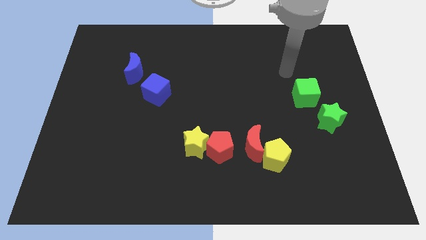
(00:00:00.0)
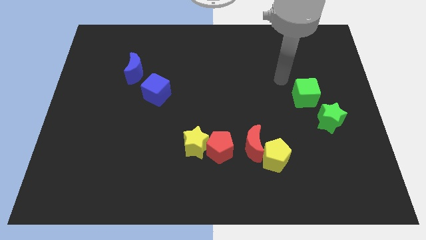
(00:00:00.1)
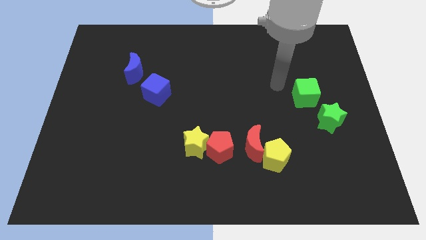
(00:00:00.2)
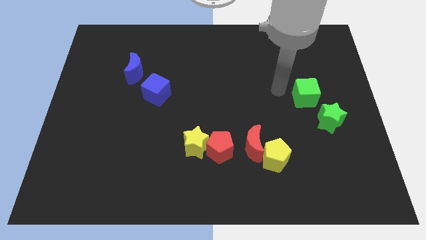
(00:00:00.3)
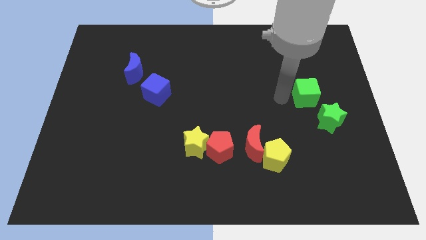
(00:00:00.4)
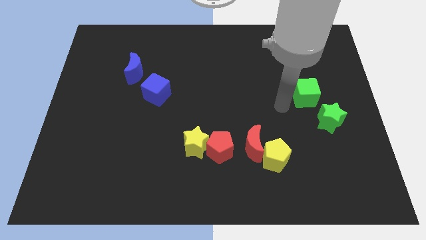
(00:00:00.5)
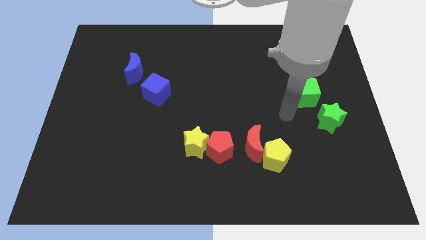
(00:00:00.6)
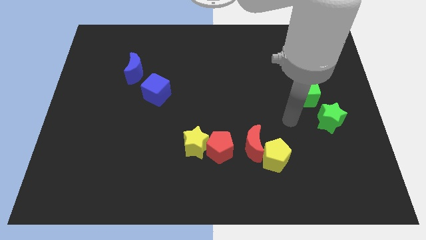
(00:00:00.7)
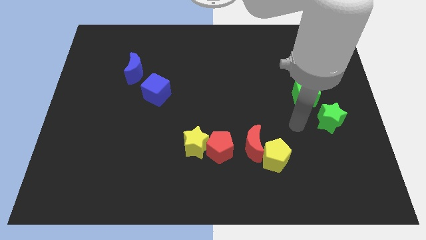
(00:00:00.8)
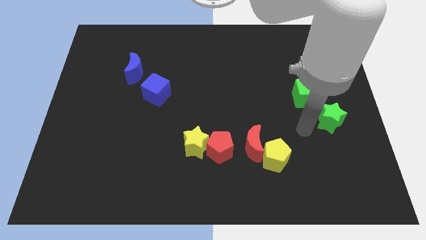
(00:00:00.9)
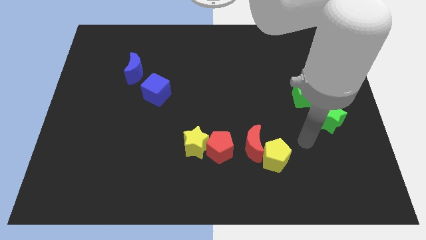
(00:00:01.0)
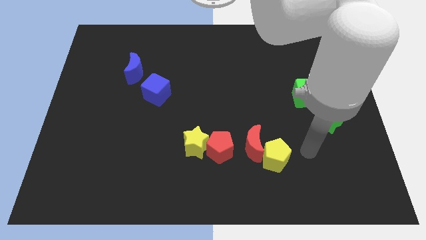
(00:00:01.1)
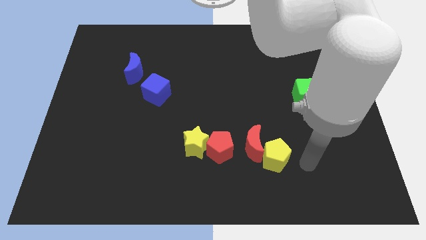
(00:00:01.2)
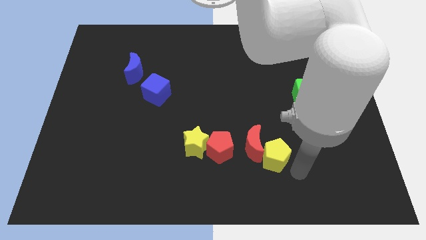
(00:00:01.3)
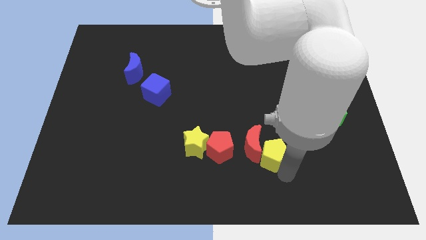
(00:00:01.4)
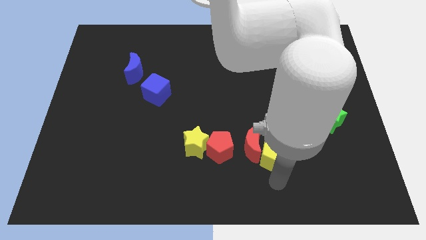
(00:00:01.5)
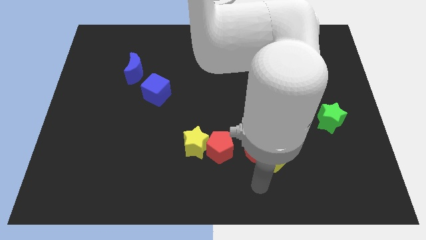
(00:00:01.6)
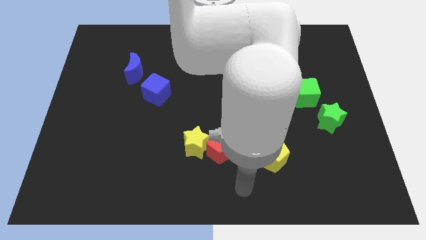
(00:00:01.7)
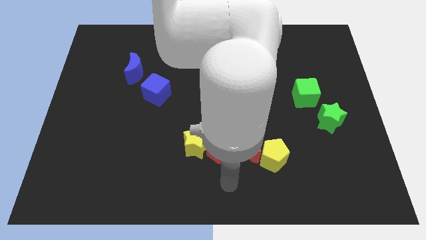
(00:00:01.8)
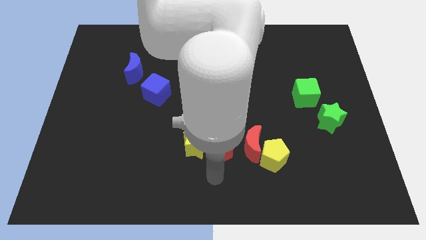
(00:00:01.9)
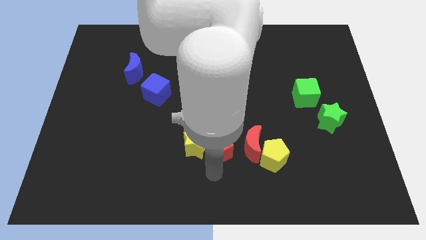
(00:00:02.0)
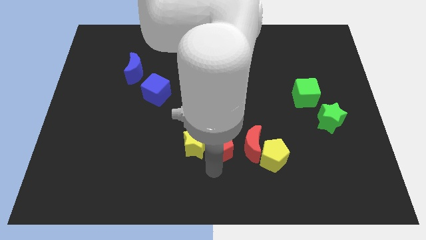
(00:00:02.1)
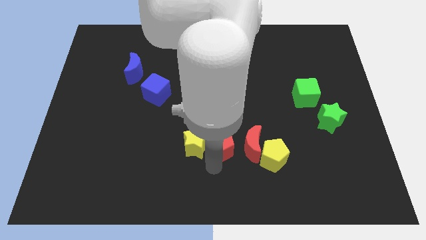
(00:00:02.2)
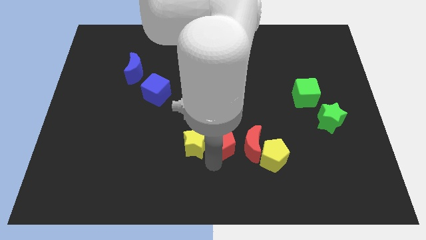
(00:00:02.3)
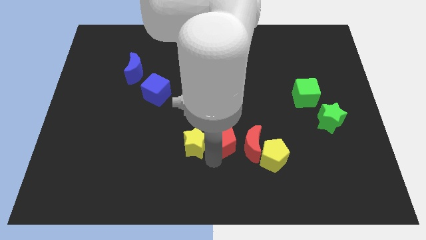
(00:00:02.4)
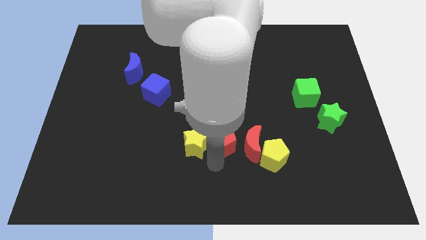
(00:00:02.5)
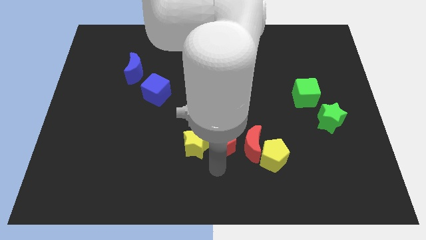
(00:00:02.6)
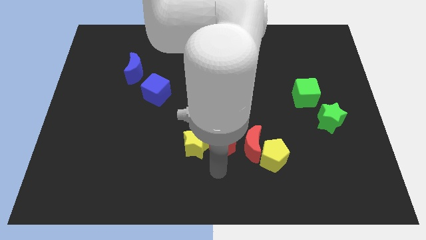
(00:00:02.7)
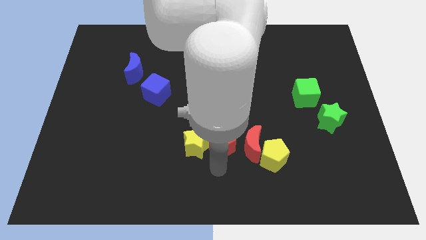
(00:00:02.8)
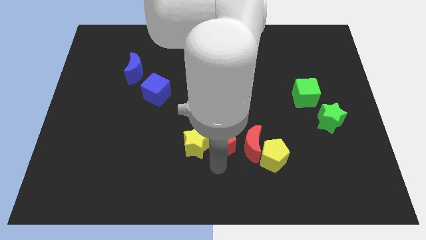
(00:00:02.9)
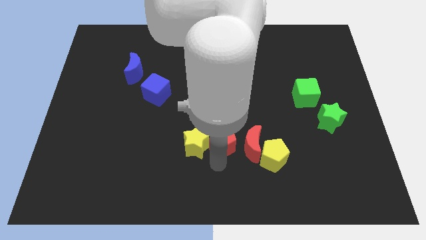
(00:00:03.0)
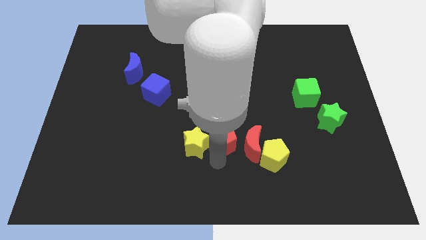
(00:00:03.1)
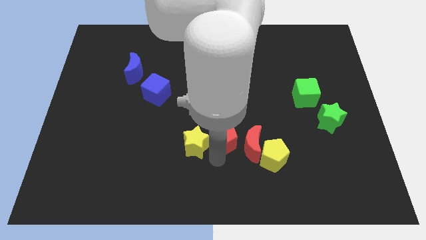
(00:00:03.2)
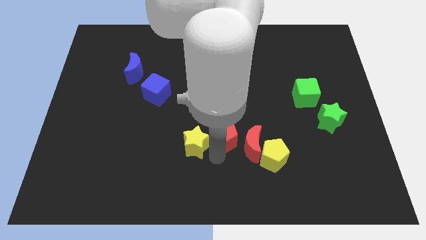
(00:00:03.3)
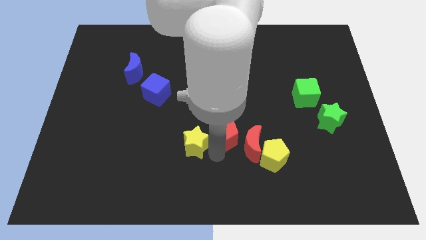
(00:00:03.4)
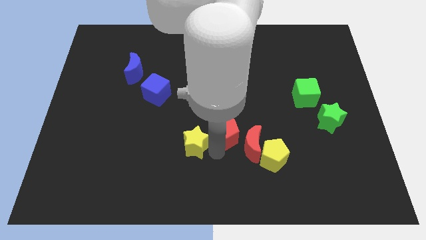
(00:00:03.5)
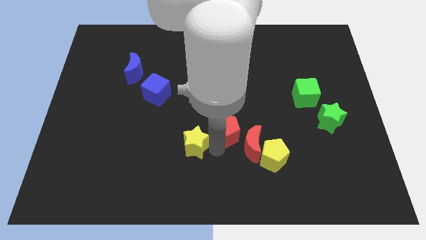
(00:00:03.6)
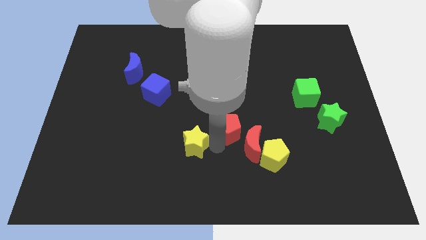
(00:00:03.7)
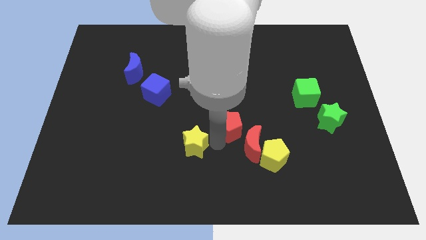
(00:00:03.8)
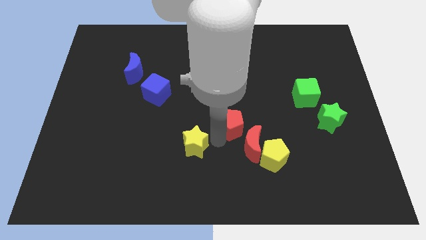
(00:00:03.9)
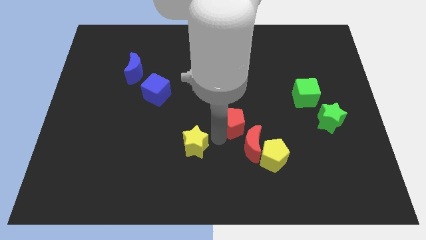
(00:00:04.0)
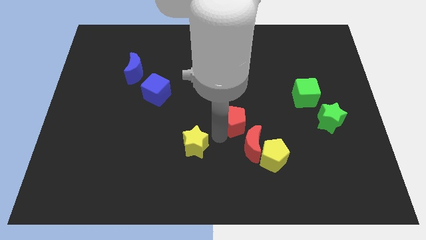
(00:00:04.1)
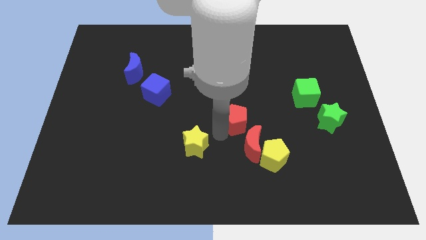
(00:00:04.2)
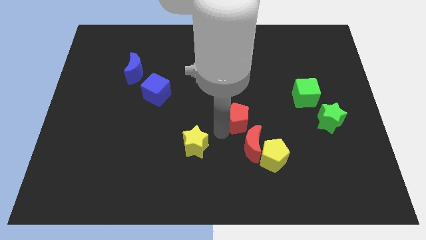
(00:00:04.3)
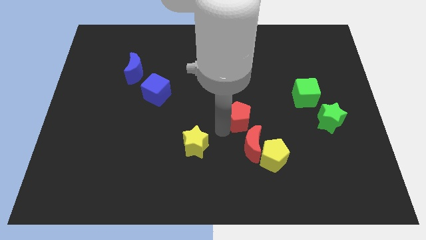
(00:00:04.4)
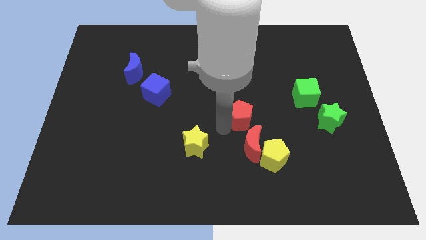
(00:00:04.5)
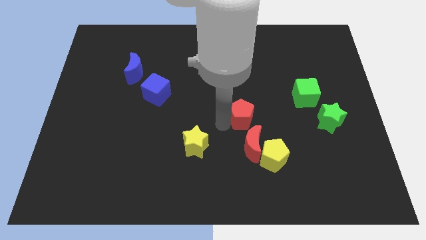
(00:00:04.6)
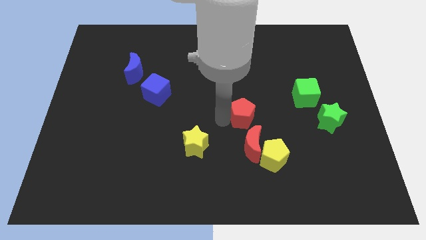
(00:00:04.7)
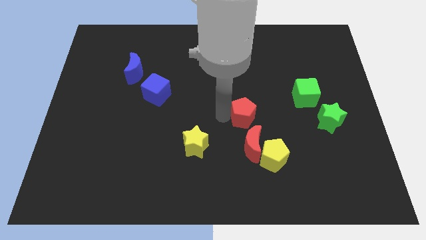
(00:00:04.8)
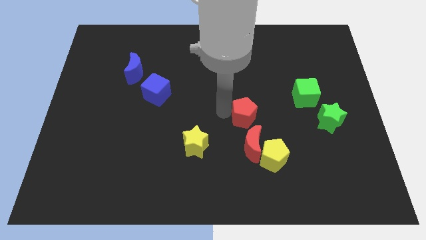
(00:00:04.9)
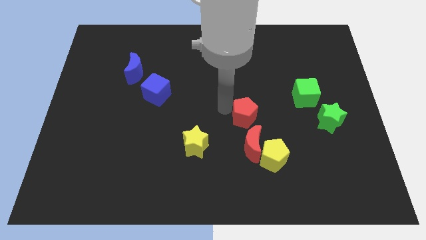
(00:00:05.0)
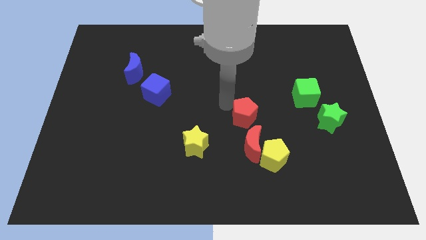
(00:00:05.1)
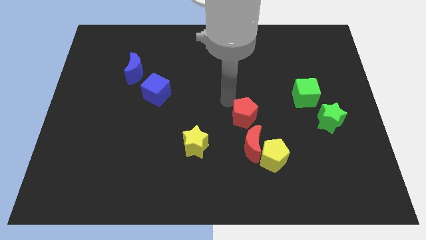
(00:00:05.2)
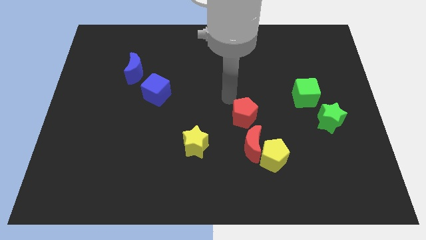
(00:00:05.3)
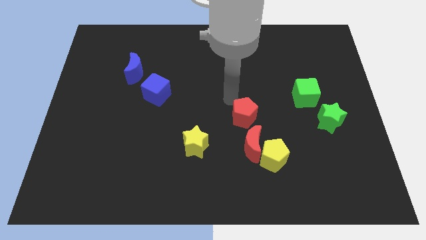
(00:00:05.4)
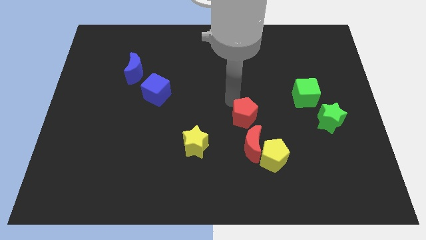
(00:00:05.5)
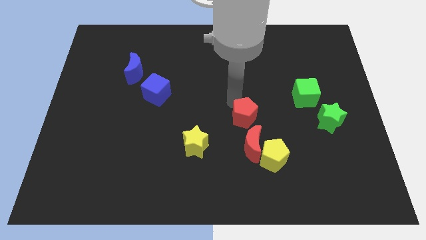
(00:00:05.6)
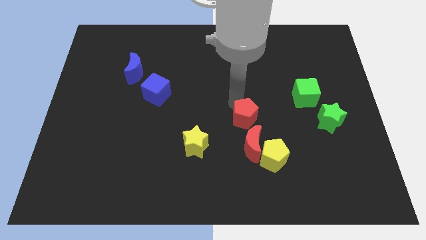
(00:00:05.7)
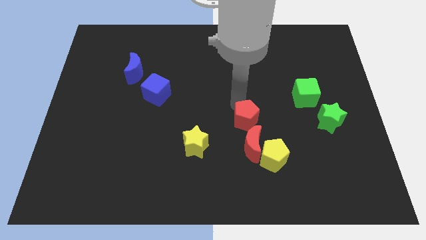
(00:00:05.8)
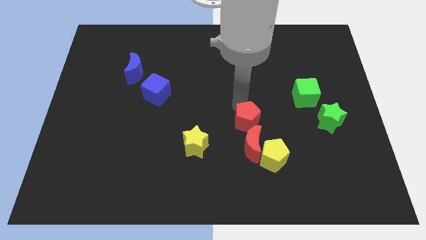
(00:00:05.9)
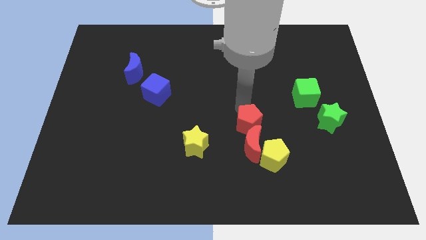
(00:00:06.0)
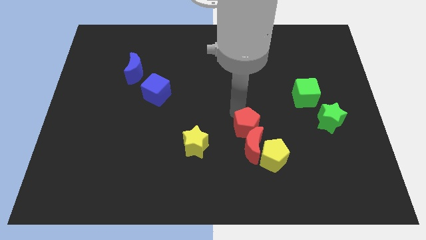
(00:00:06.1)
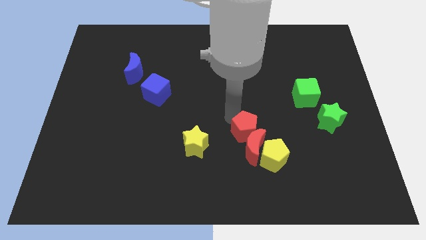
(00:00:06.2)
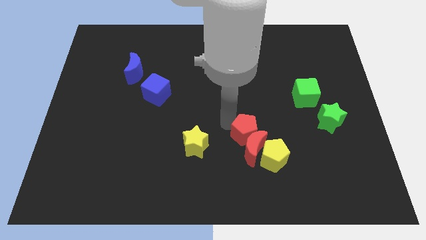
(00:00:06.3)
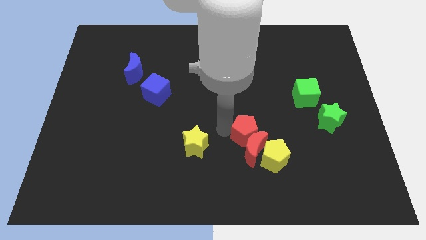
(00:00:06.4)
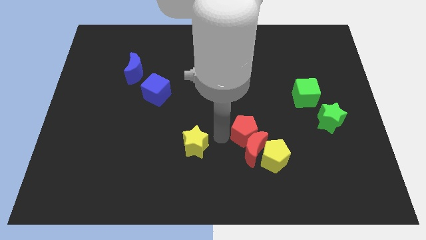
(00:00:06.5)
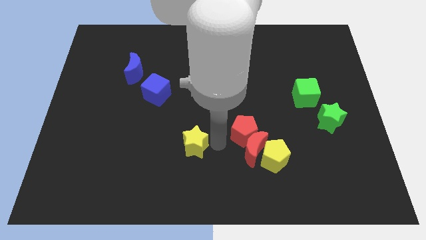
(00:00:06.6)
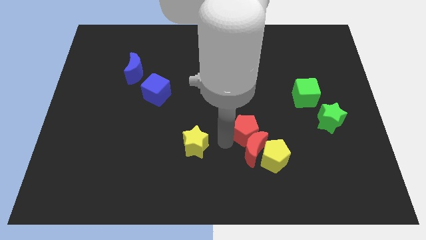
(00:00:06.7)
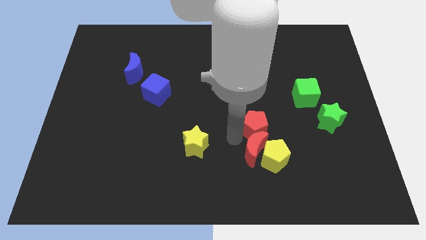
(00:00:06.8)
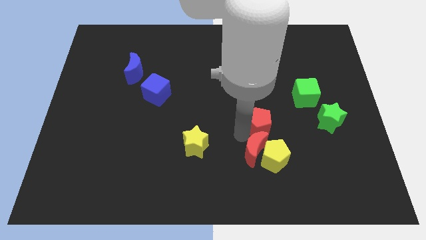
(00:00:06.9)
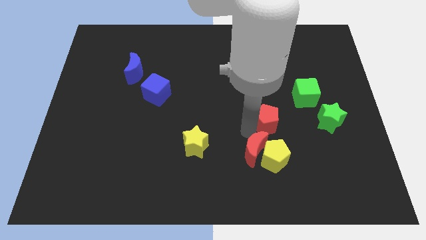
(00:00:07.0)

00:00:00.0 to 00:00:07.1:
put the red pentagon left of the green star
